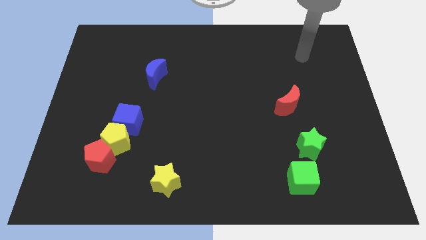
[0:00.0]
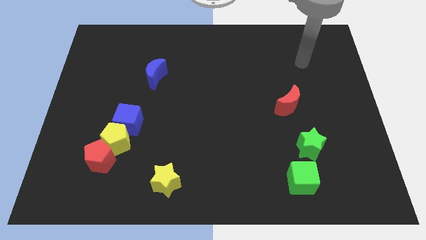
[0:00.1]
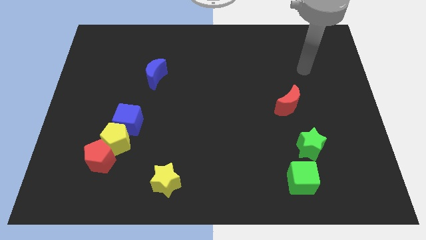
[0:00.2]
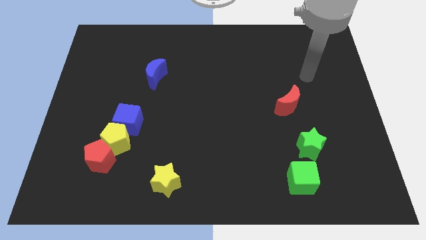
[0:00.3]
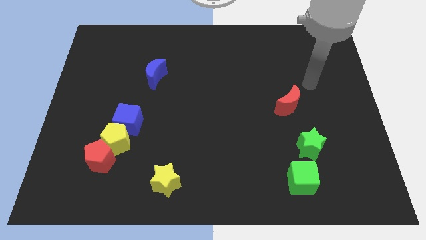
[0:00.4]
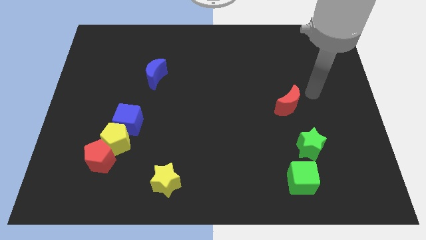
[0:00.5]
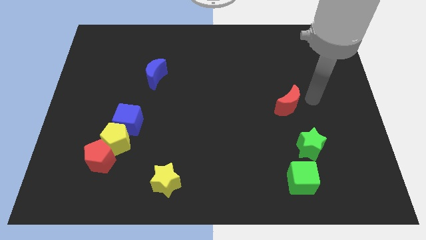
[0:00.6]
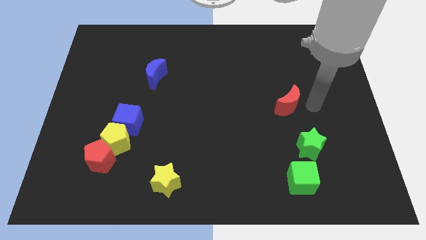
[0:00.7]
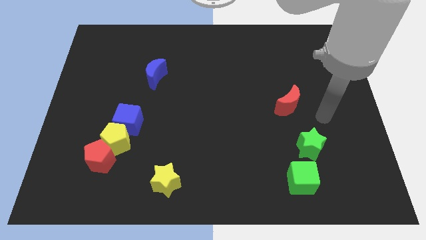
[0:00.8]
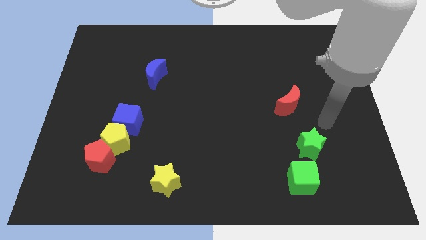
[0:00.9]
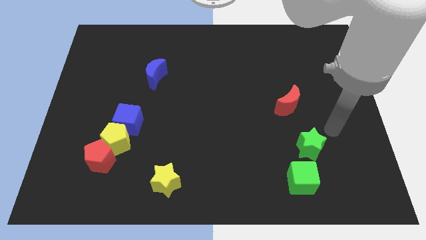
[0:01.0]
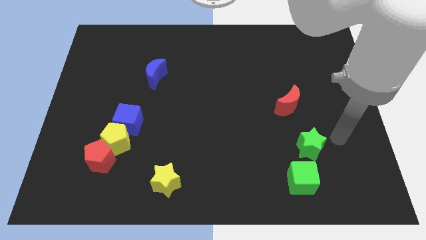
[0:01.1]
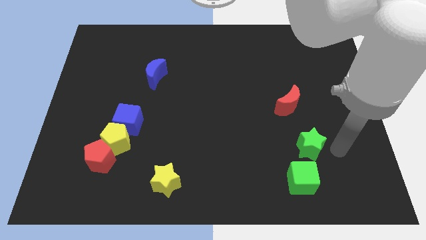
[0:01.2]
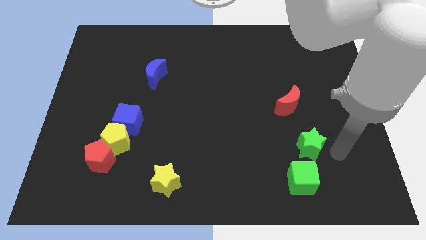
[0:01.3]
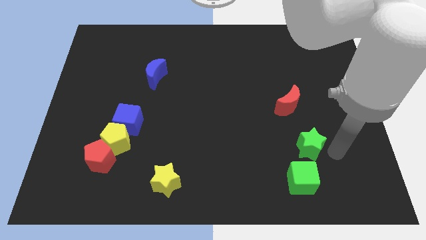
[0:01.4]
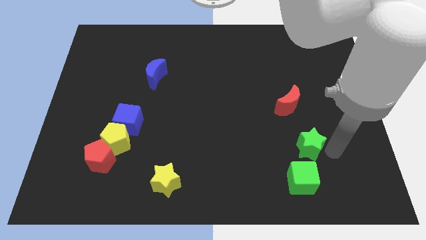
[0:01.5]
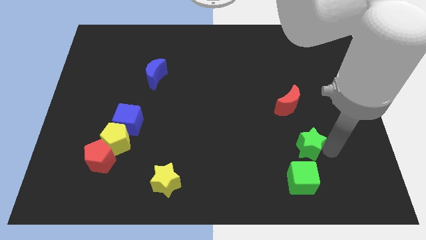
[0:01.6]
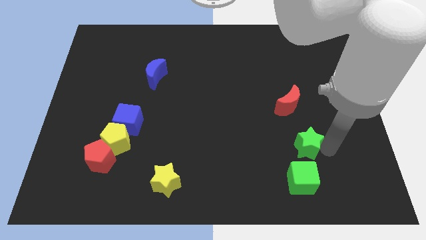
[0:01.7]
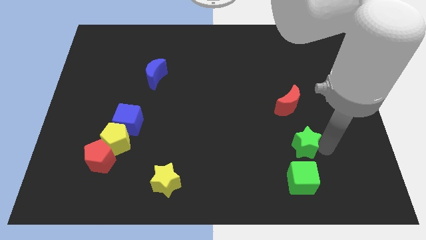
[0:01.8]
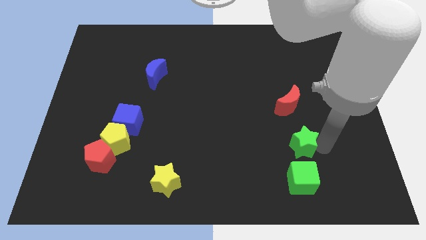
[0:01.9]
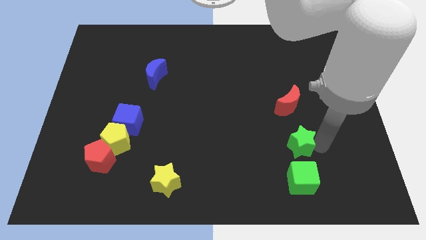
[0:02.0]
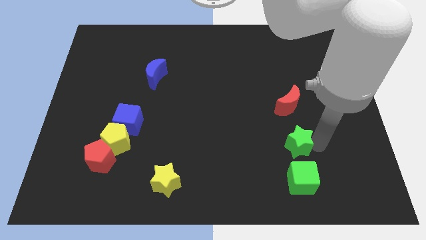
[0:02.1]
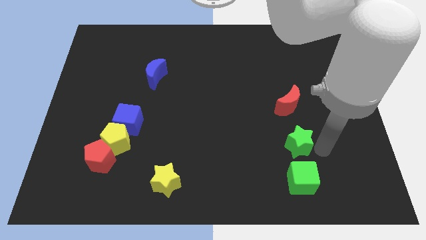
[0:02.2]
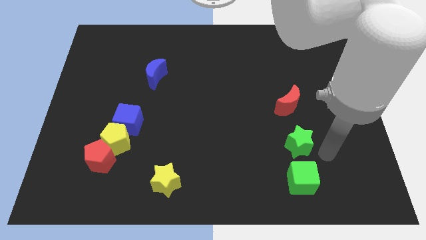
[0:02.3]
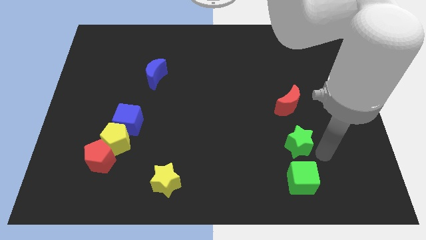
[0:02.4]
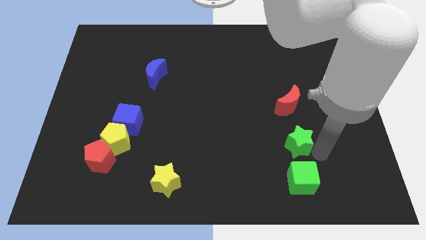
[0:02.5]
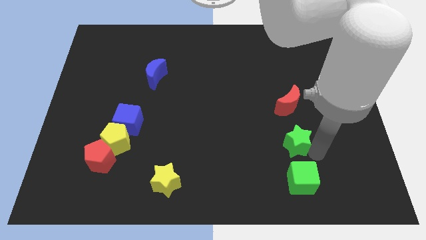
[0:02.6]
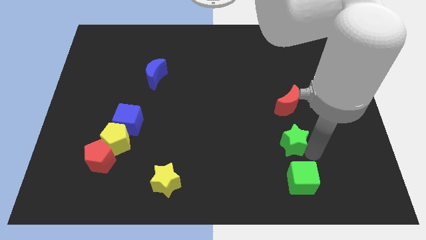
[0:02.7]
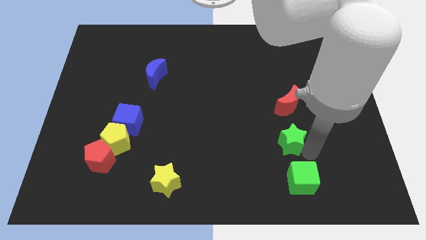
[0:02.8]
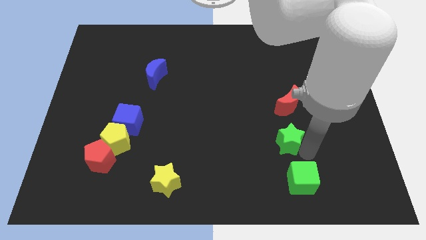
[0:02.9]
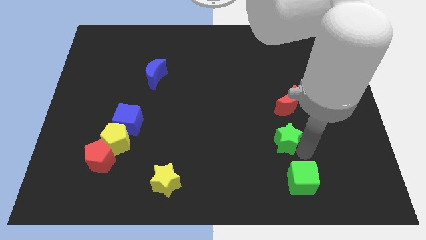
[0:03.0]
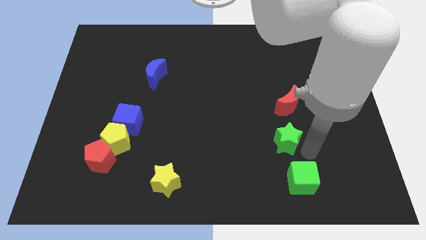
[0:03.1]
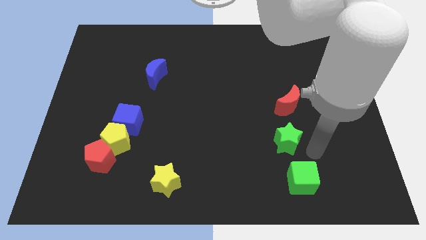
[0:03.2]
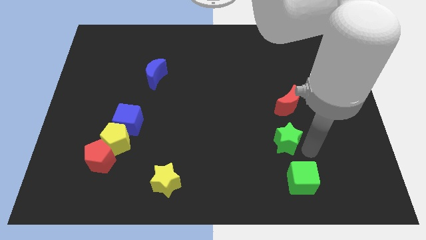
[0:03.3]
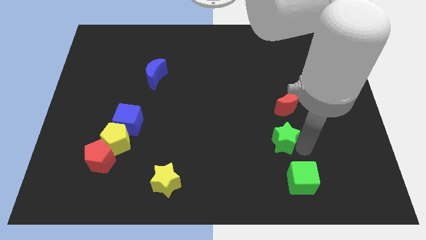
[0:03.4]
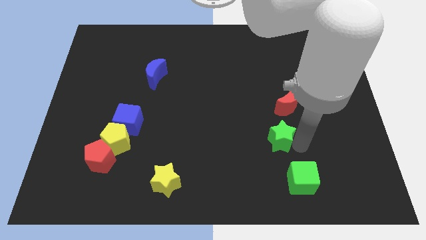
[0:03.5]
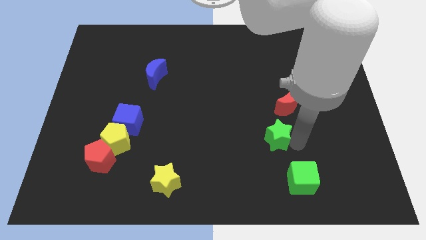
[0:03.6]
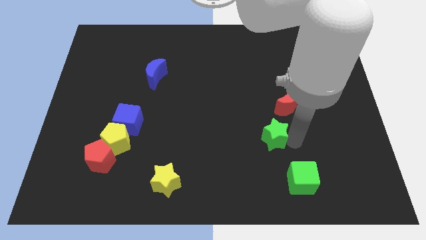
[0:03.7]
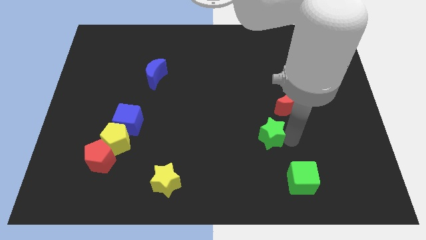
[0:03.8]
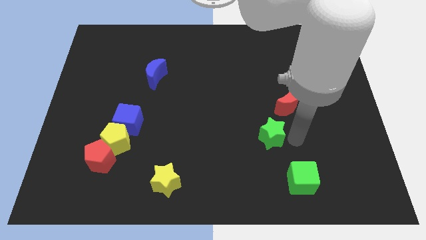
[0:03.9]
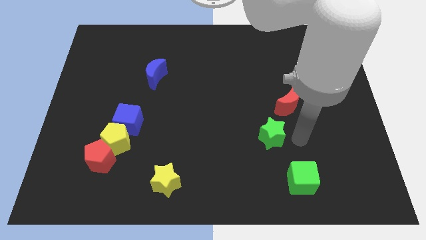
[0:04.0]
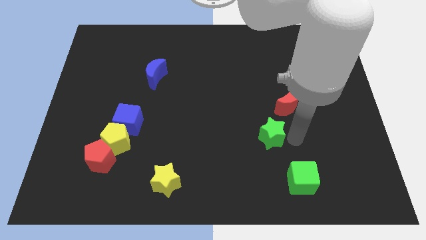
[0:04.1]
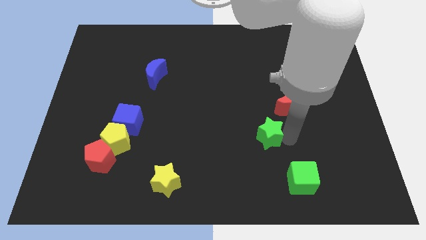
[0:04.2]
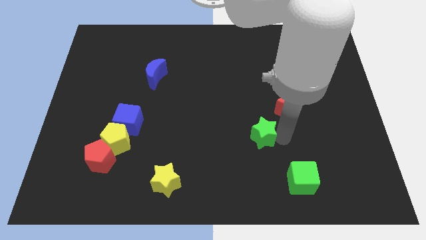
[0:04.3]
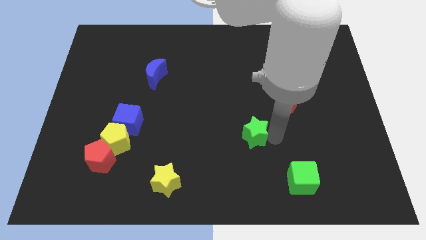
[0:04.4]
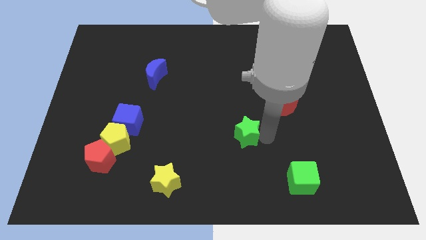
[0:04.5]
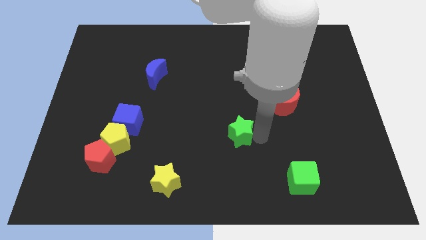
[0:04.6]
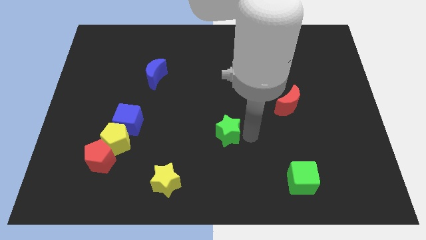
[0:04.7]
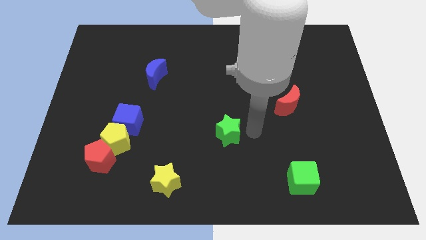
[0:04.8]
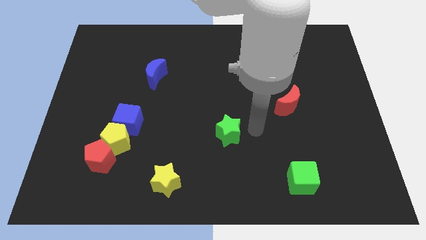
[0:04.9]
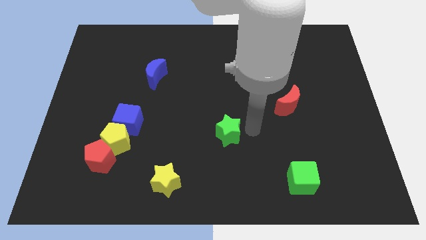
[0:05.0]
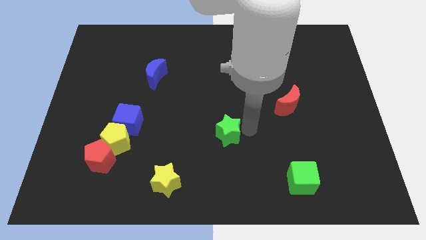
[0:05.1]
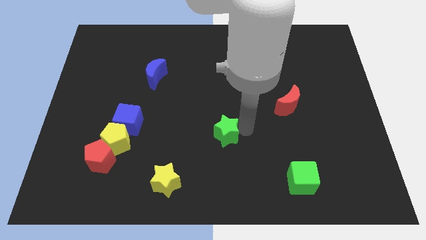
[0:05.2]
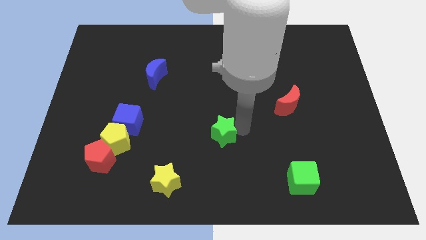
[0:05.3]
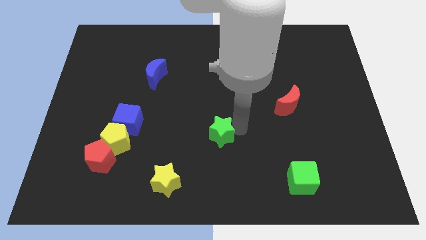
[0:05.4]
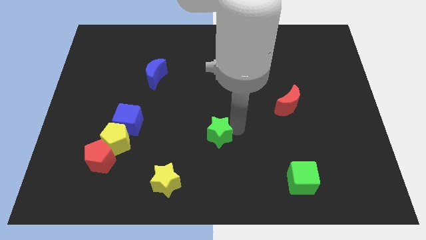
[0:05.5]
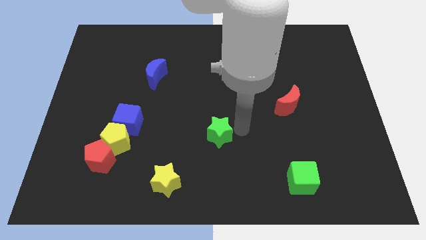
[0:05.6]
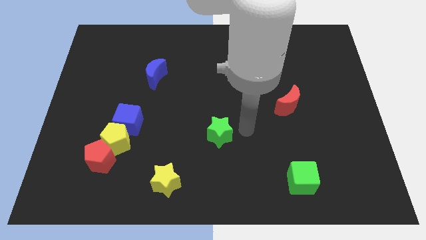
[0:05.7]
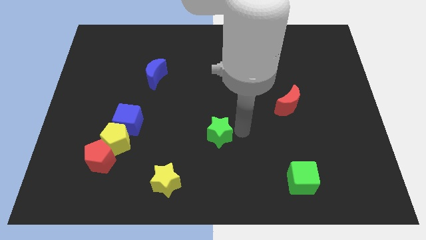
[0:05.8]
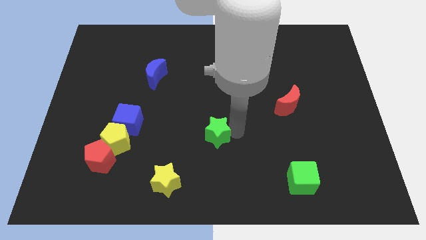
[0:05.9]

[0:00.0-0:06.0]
move the green star left

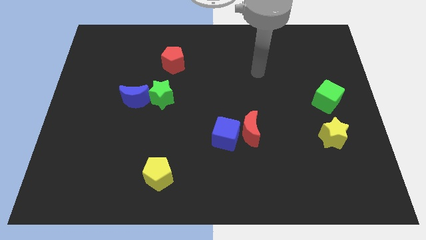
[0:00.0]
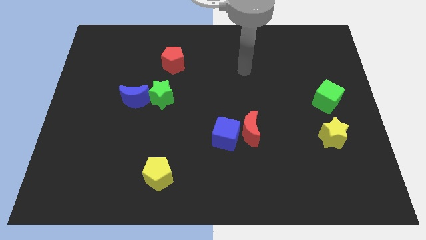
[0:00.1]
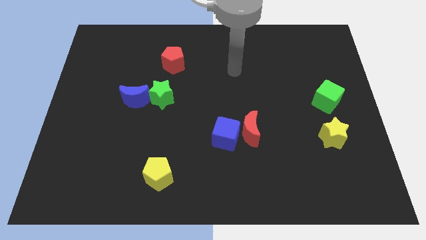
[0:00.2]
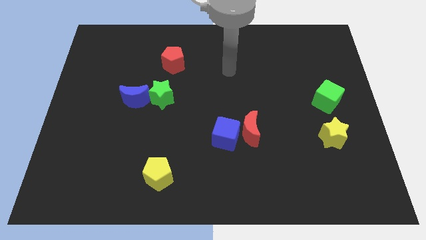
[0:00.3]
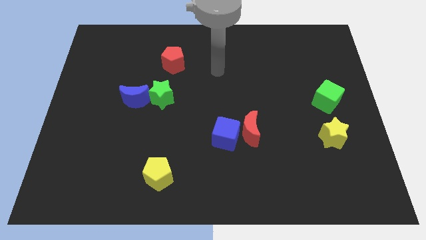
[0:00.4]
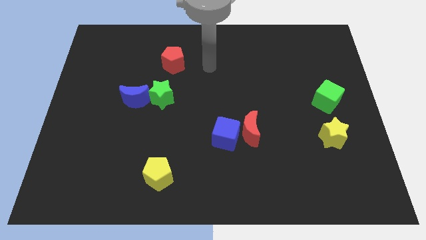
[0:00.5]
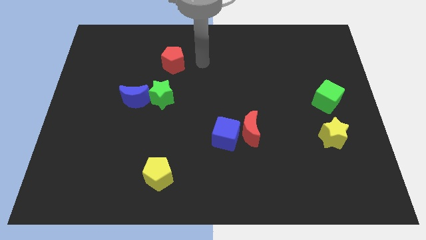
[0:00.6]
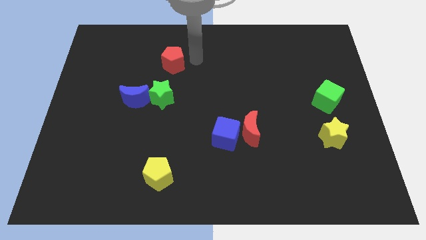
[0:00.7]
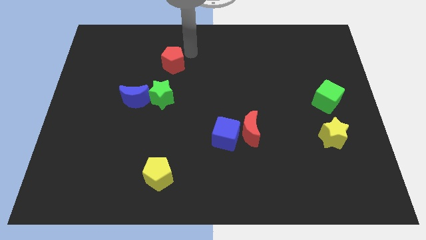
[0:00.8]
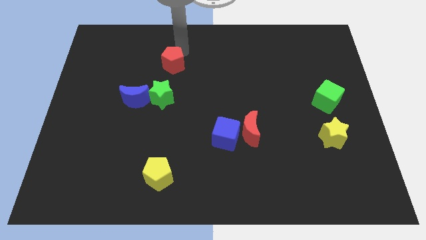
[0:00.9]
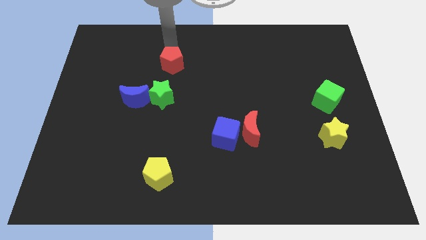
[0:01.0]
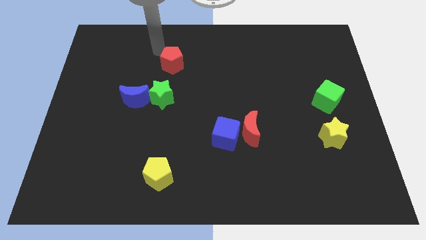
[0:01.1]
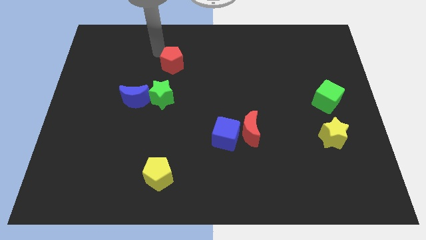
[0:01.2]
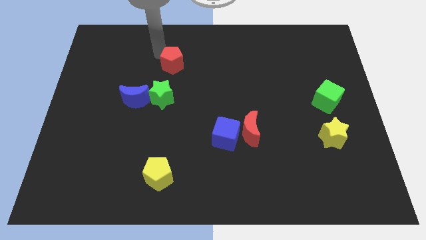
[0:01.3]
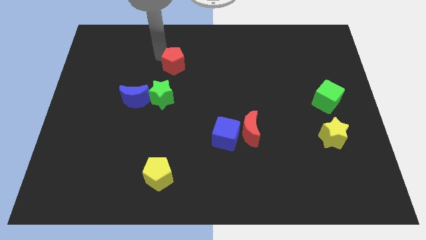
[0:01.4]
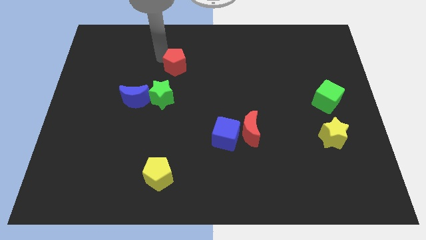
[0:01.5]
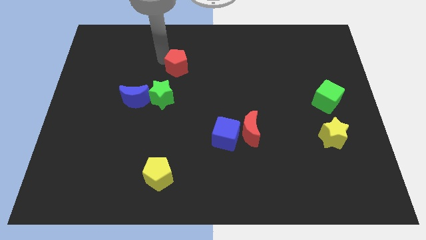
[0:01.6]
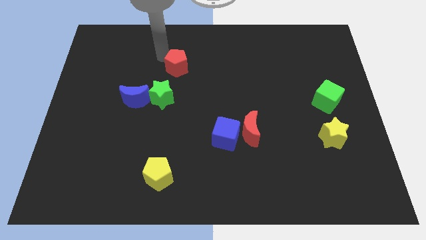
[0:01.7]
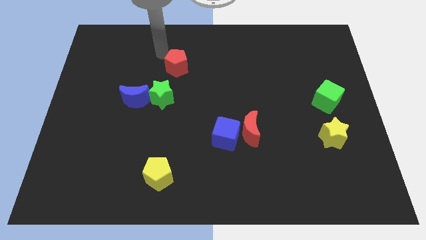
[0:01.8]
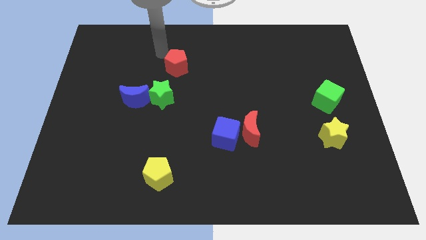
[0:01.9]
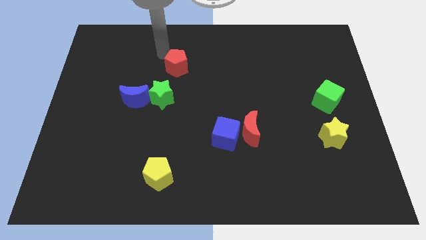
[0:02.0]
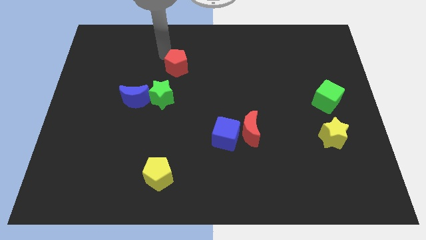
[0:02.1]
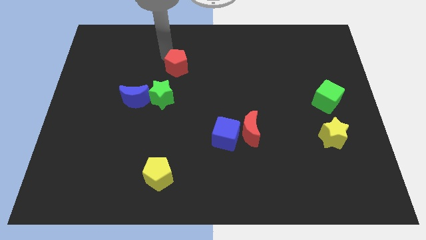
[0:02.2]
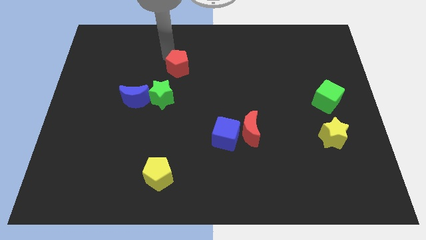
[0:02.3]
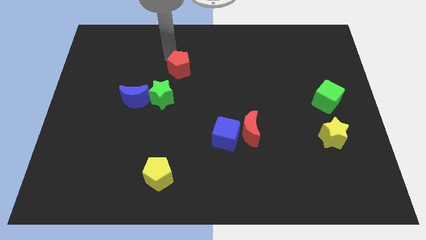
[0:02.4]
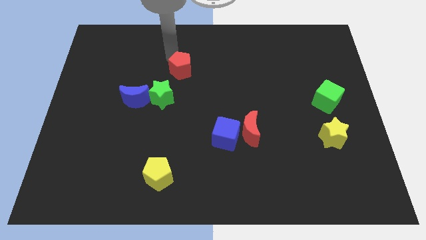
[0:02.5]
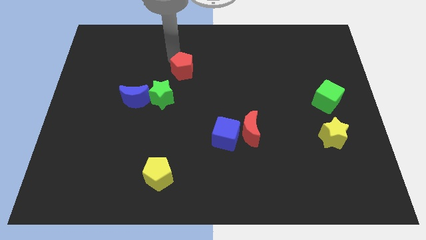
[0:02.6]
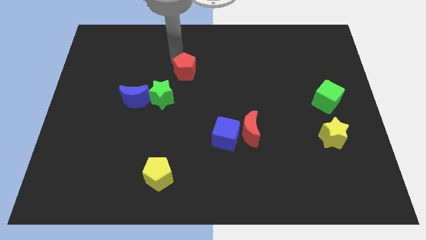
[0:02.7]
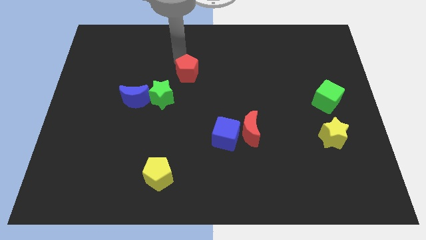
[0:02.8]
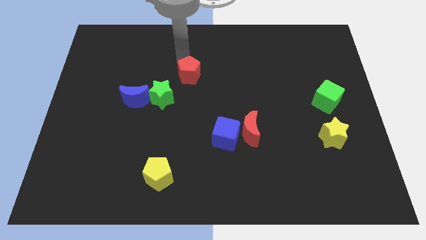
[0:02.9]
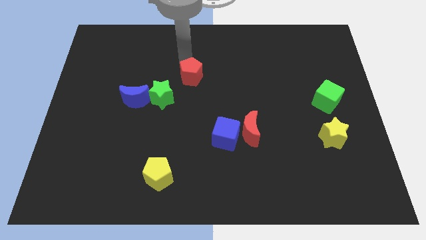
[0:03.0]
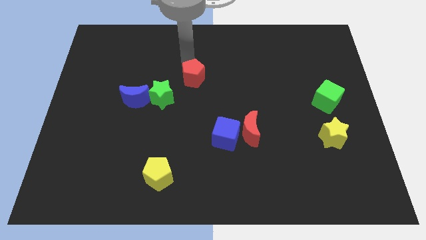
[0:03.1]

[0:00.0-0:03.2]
slightly move the red pentagon down and then to the right
